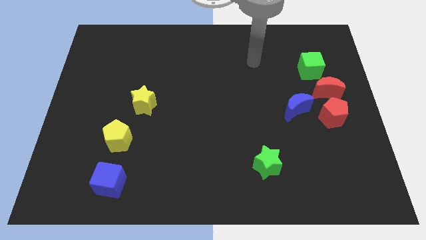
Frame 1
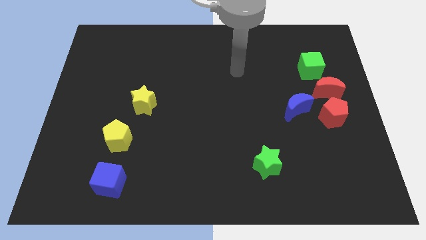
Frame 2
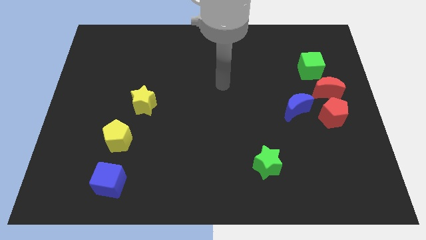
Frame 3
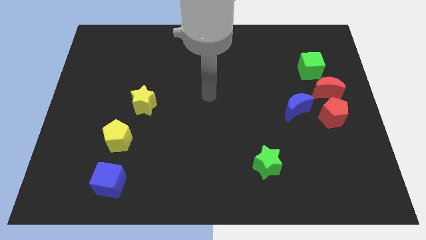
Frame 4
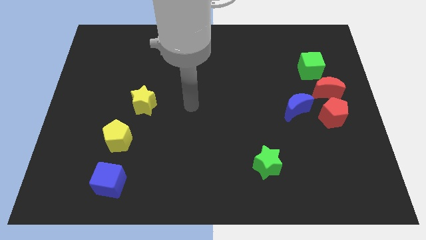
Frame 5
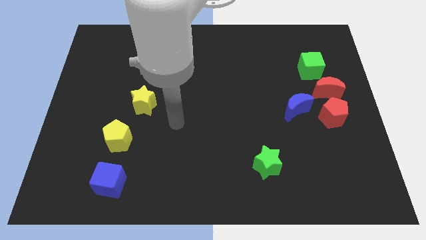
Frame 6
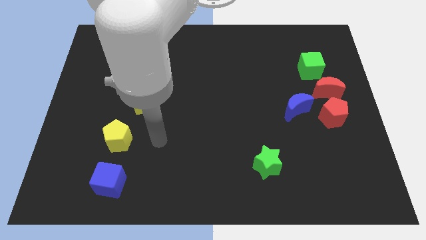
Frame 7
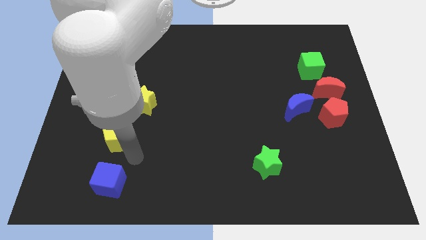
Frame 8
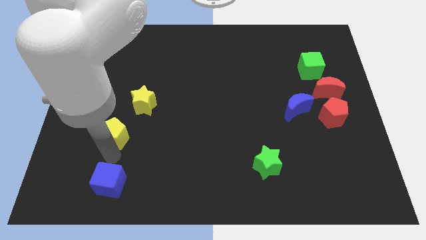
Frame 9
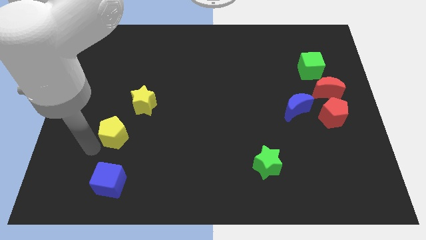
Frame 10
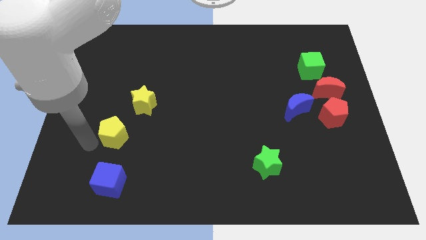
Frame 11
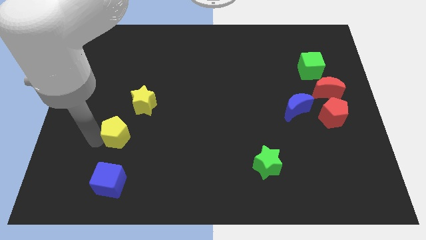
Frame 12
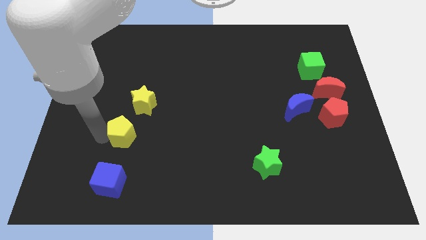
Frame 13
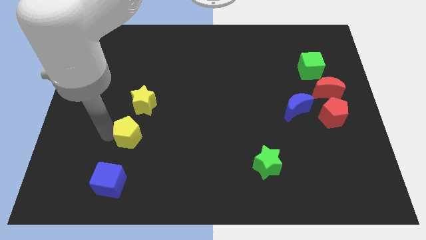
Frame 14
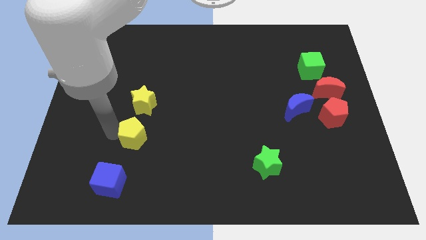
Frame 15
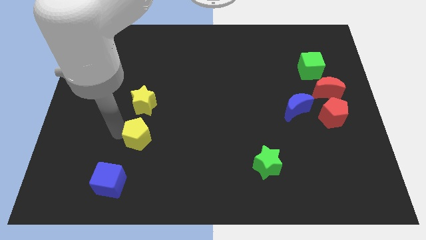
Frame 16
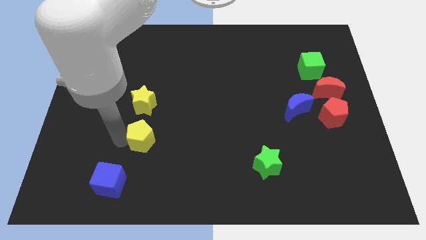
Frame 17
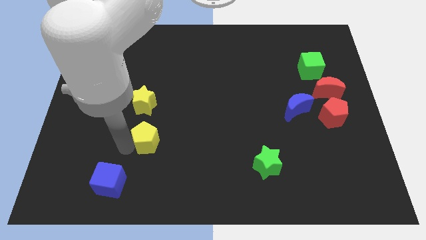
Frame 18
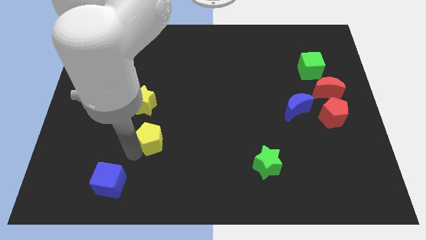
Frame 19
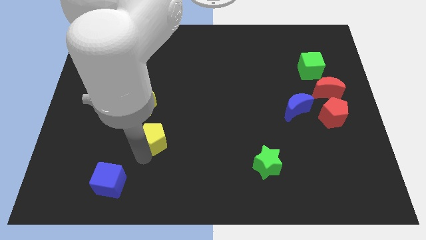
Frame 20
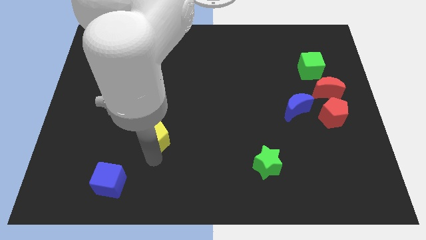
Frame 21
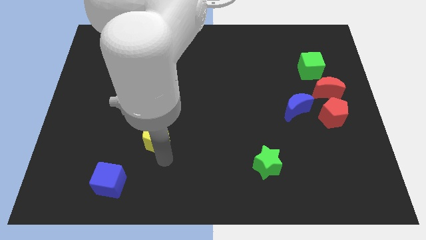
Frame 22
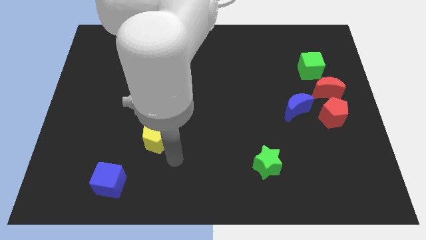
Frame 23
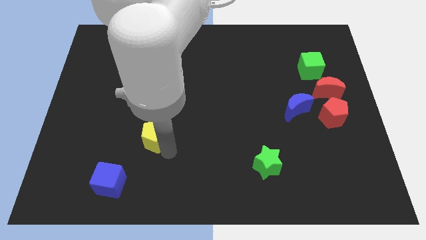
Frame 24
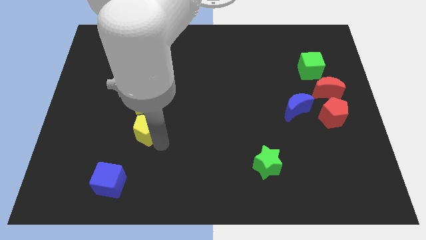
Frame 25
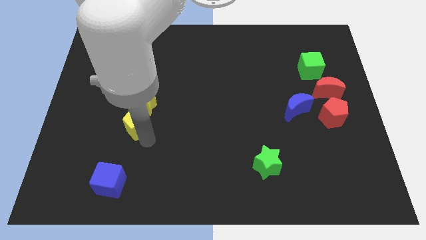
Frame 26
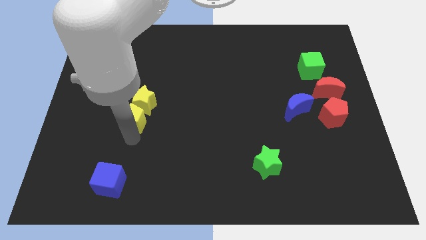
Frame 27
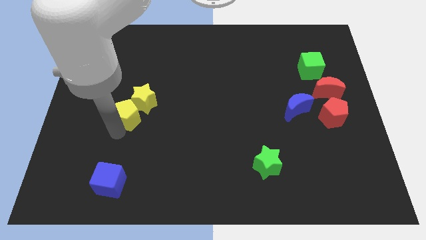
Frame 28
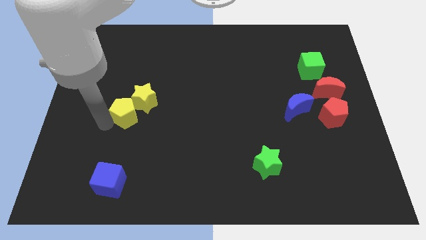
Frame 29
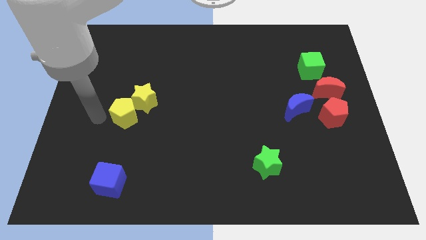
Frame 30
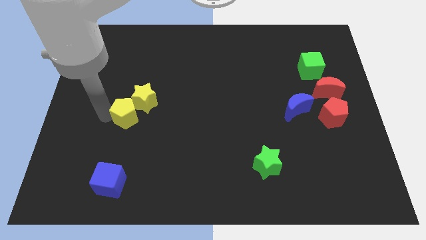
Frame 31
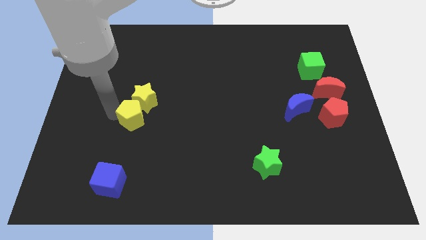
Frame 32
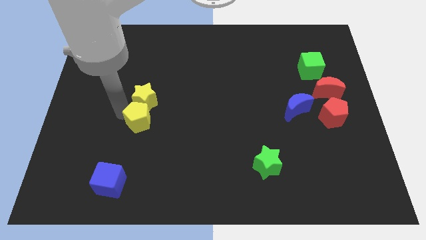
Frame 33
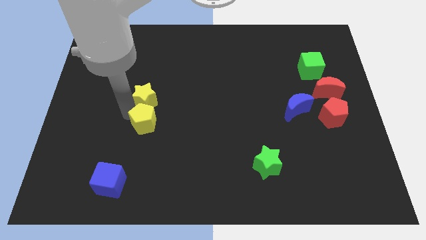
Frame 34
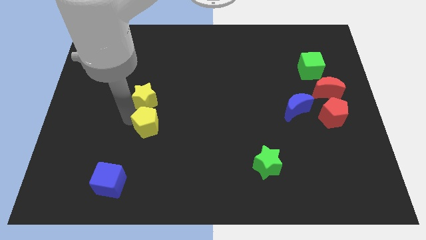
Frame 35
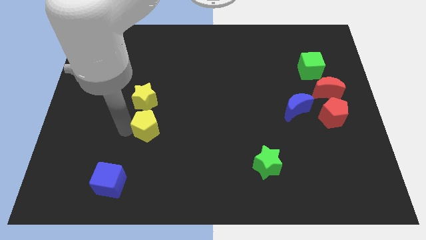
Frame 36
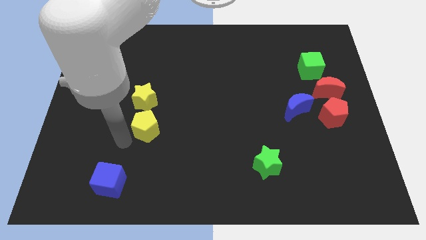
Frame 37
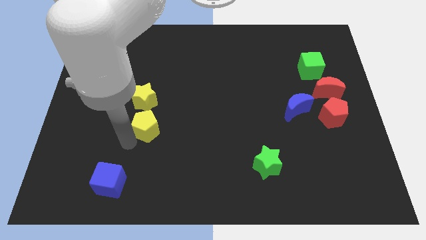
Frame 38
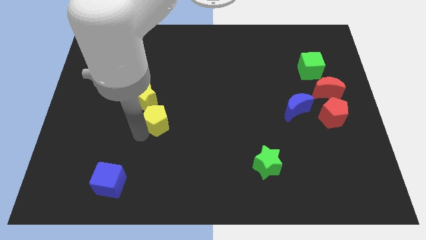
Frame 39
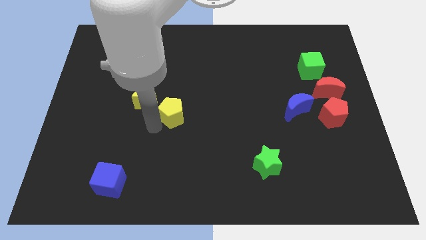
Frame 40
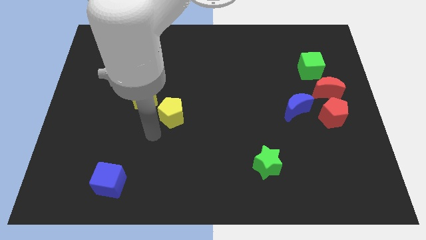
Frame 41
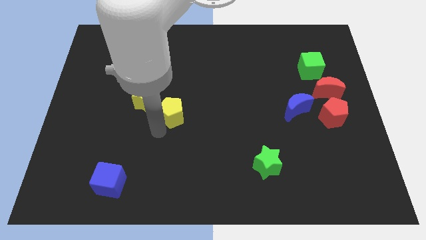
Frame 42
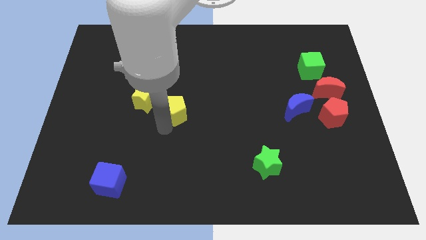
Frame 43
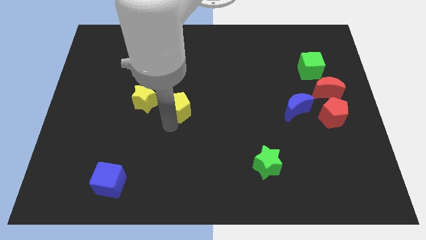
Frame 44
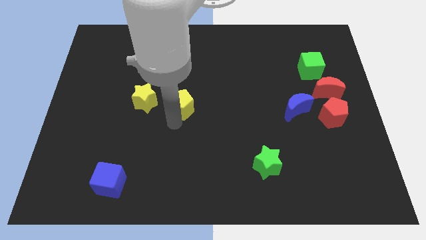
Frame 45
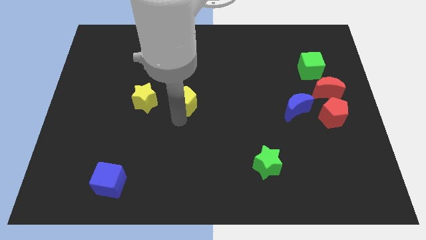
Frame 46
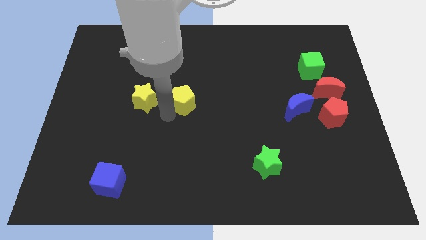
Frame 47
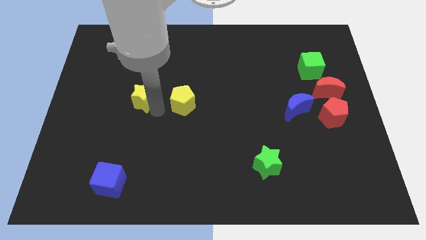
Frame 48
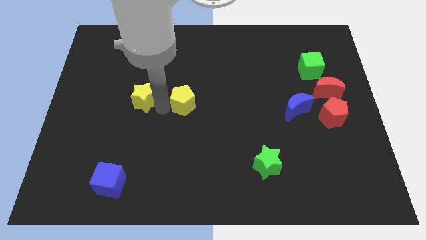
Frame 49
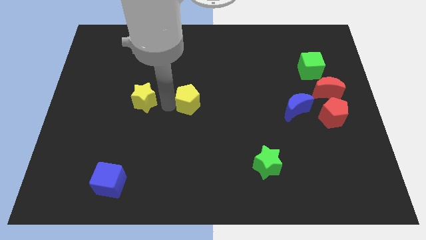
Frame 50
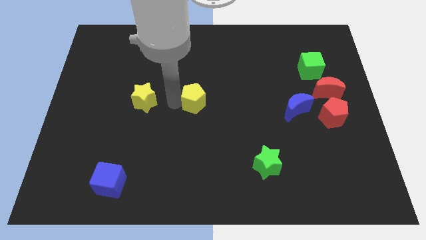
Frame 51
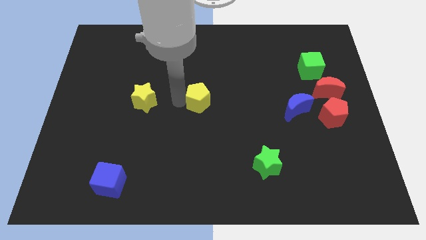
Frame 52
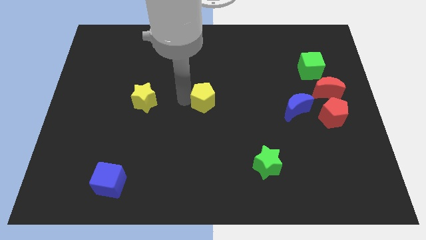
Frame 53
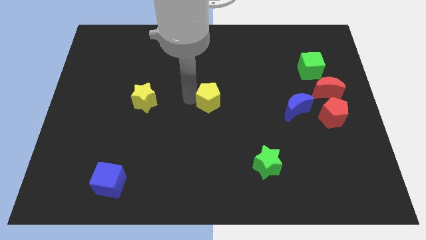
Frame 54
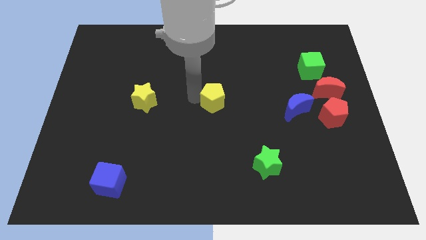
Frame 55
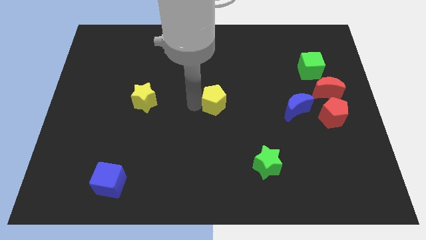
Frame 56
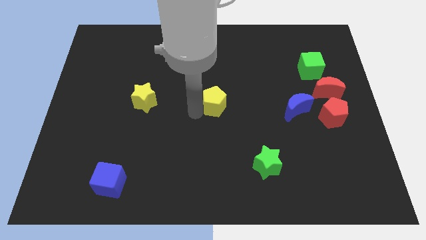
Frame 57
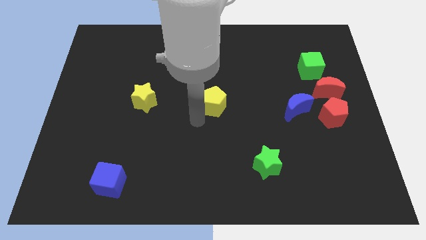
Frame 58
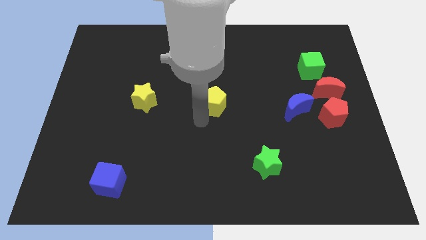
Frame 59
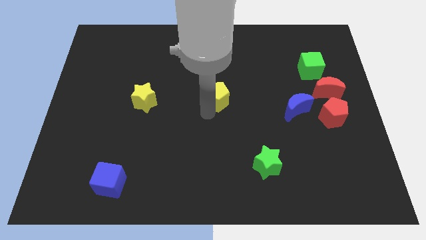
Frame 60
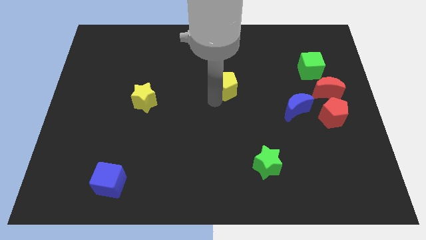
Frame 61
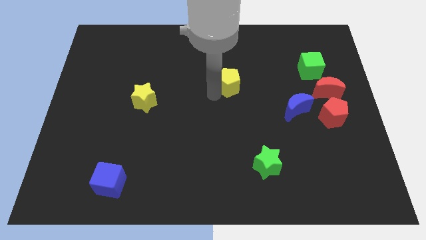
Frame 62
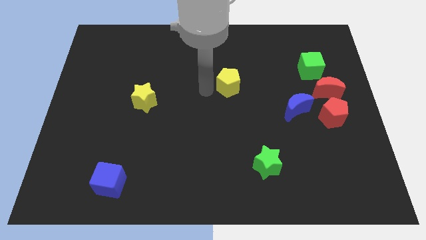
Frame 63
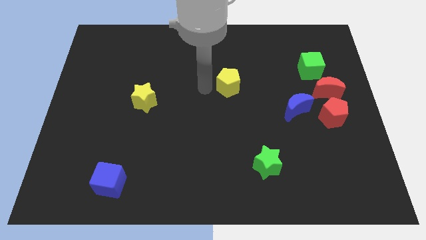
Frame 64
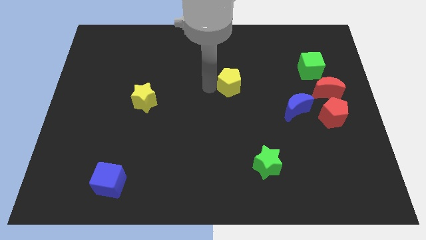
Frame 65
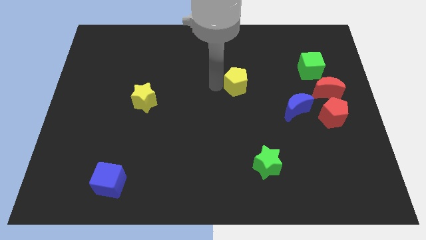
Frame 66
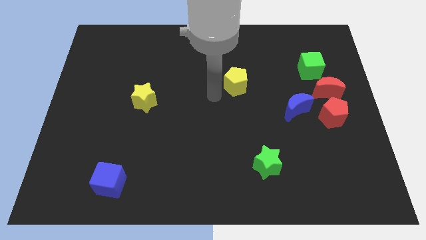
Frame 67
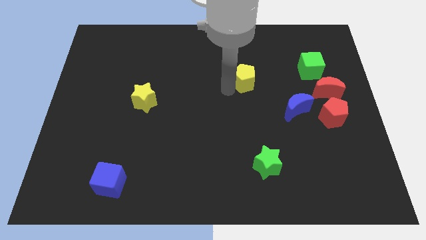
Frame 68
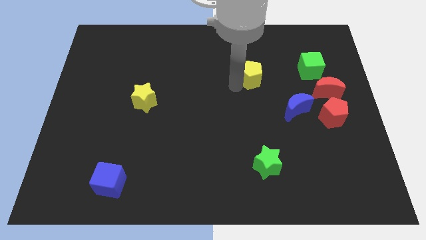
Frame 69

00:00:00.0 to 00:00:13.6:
move the yellow pentagon left of the green cube
